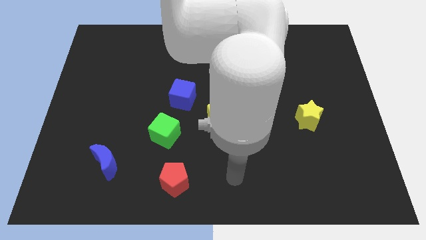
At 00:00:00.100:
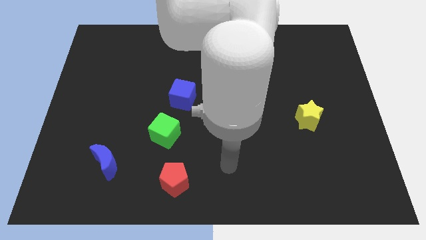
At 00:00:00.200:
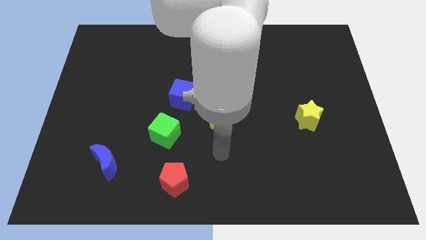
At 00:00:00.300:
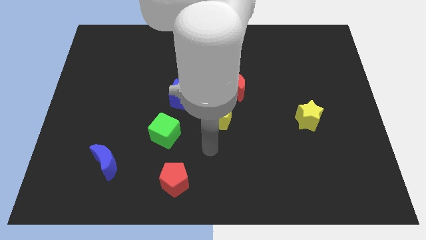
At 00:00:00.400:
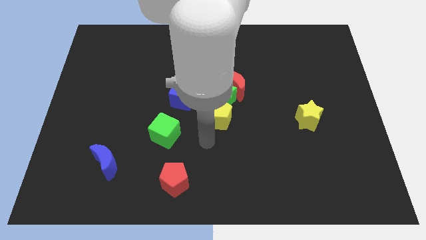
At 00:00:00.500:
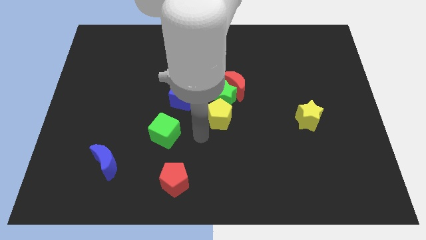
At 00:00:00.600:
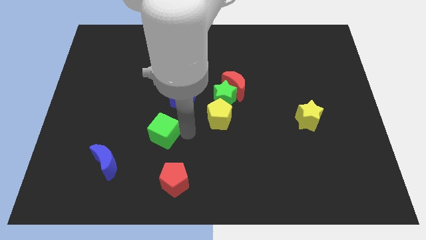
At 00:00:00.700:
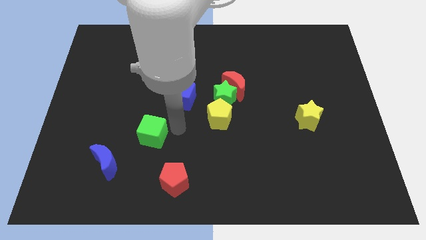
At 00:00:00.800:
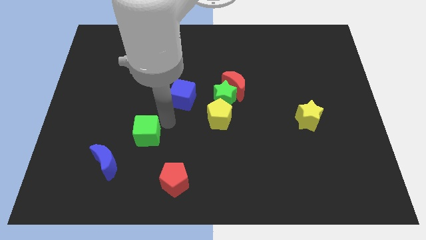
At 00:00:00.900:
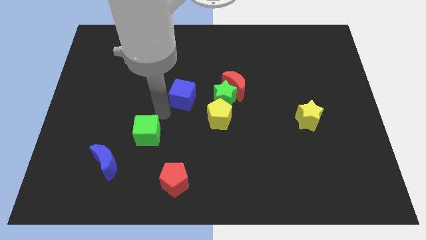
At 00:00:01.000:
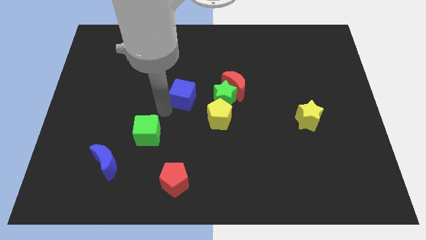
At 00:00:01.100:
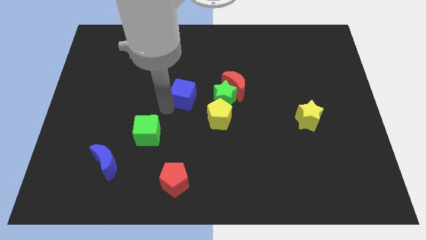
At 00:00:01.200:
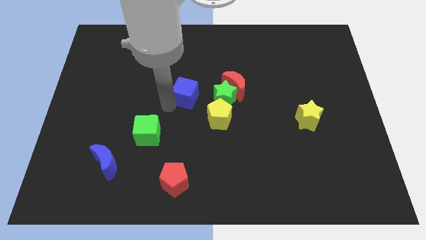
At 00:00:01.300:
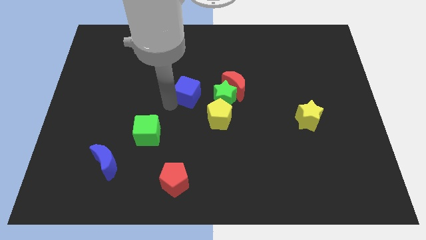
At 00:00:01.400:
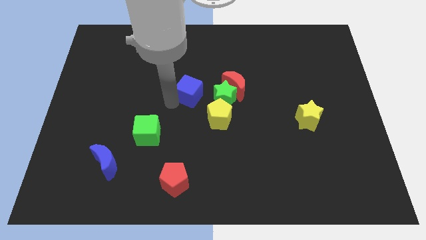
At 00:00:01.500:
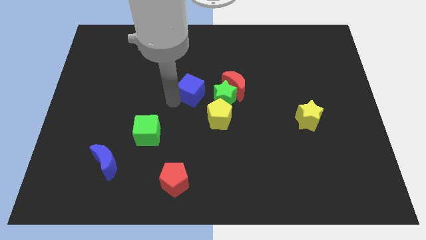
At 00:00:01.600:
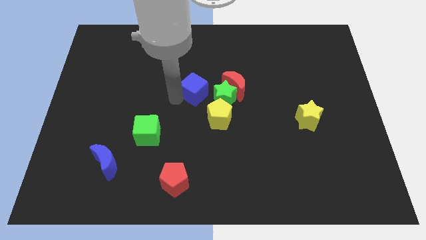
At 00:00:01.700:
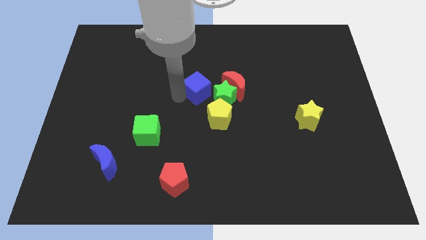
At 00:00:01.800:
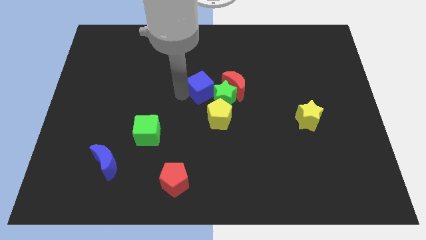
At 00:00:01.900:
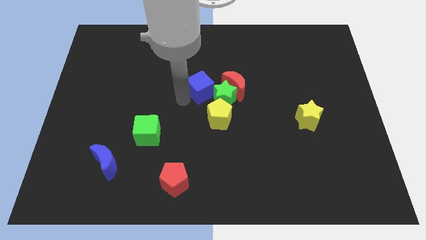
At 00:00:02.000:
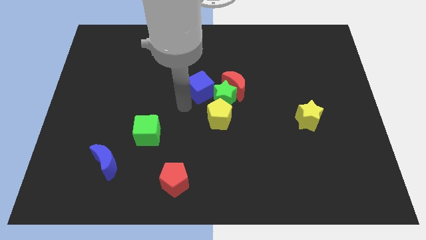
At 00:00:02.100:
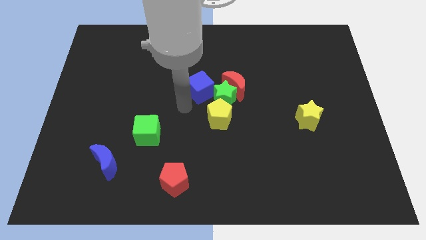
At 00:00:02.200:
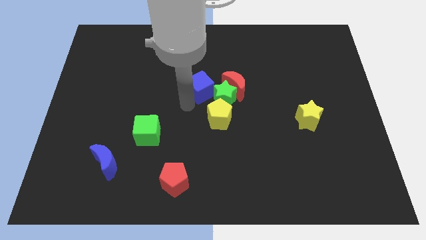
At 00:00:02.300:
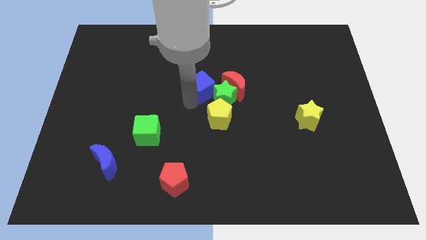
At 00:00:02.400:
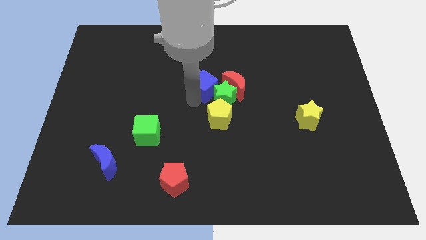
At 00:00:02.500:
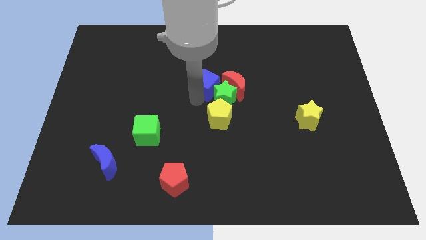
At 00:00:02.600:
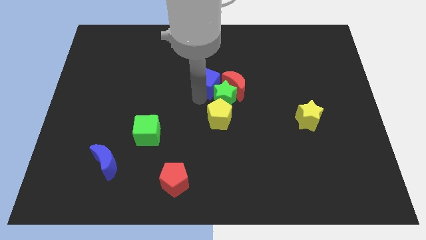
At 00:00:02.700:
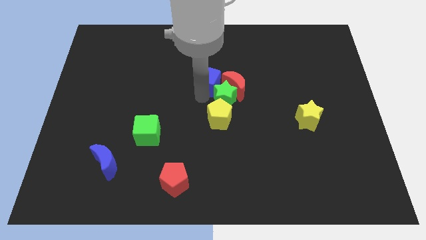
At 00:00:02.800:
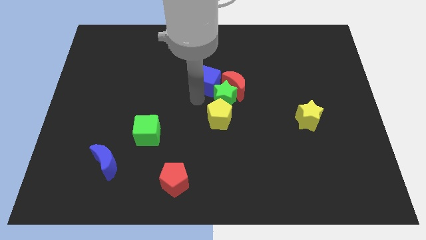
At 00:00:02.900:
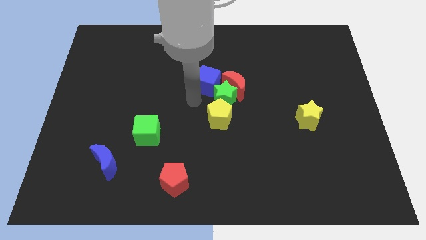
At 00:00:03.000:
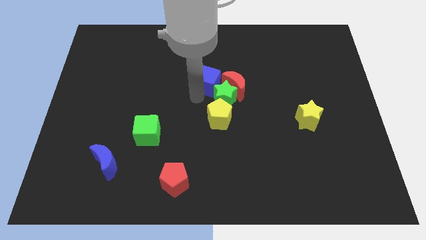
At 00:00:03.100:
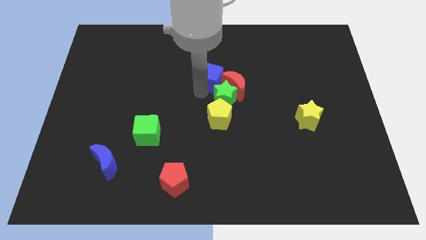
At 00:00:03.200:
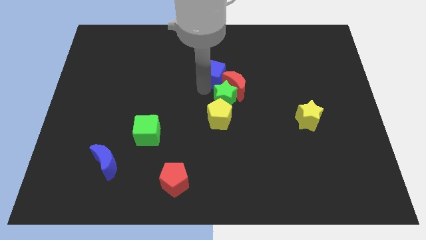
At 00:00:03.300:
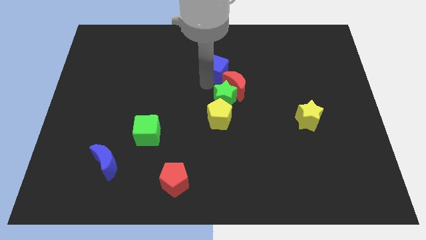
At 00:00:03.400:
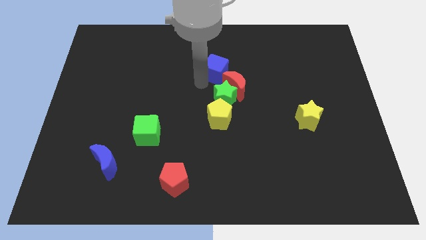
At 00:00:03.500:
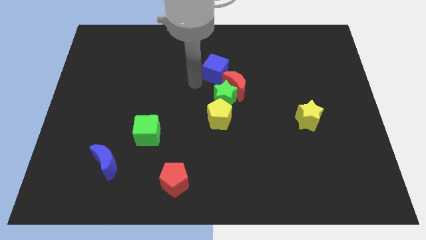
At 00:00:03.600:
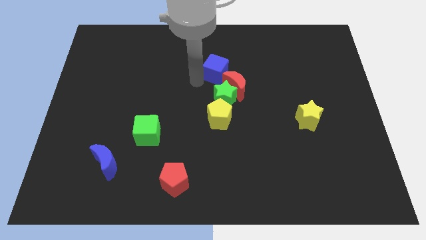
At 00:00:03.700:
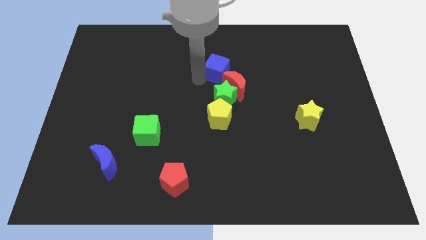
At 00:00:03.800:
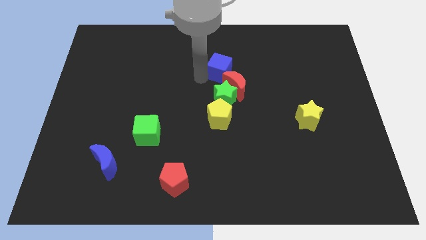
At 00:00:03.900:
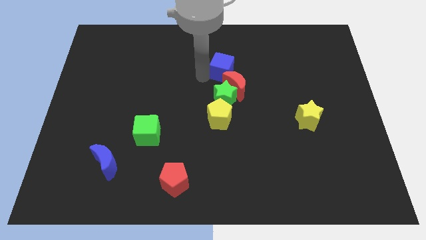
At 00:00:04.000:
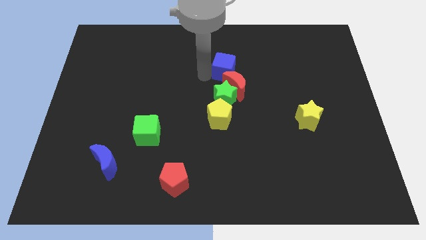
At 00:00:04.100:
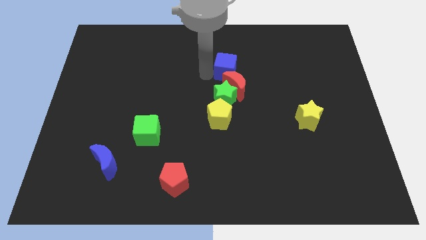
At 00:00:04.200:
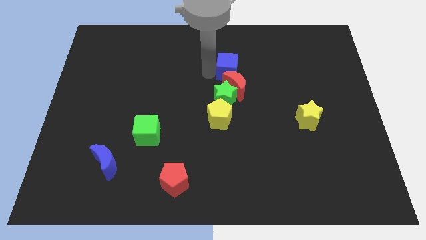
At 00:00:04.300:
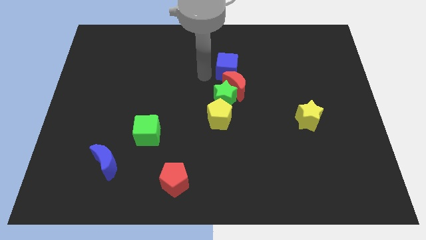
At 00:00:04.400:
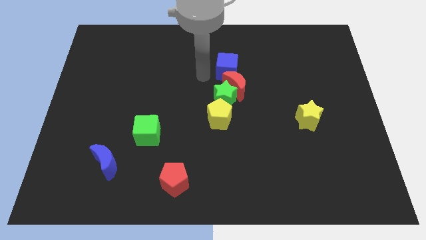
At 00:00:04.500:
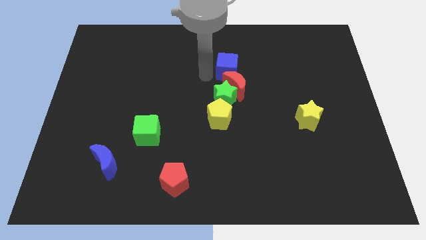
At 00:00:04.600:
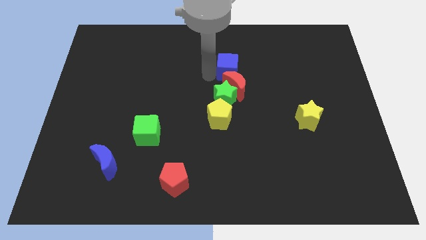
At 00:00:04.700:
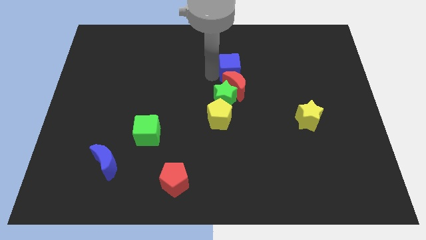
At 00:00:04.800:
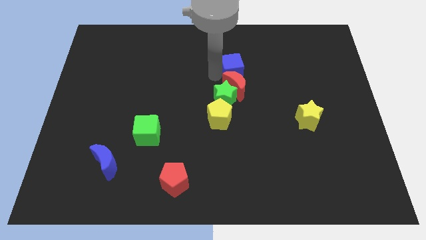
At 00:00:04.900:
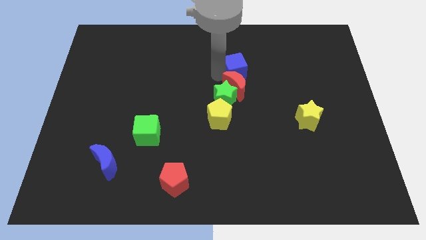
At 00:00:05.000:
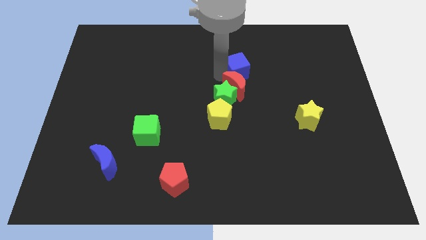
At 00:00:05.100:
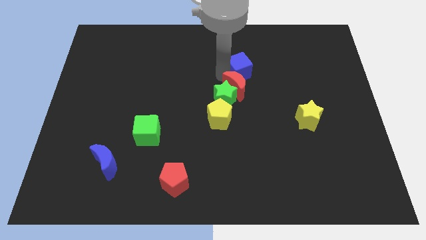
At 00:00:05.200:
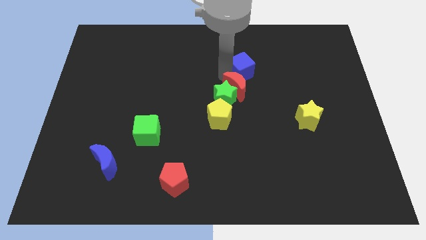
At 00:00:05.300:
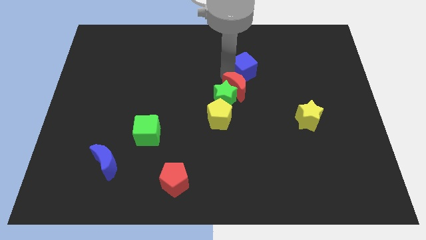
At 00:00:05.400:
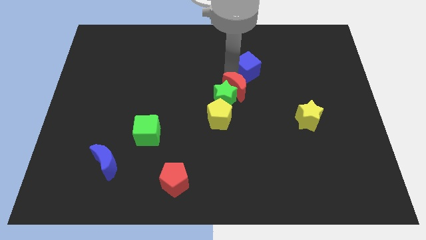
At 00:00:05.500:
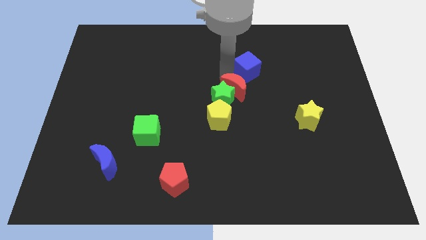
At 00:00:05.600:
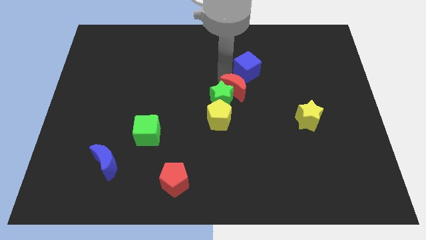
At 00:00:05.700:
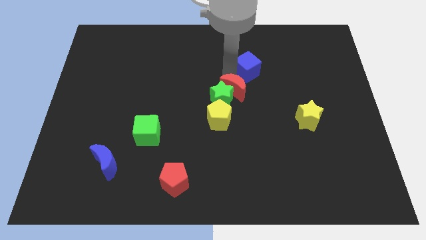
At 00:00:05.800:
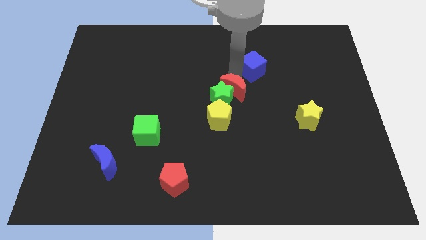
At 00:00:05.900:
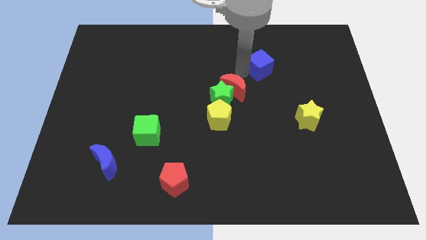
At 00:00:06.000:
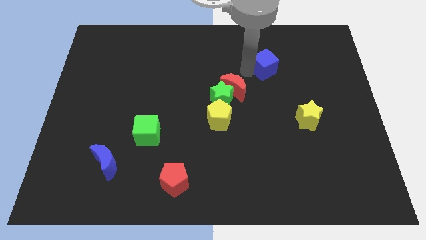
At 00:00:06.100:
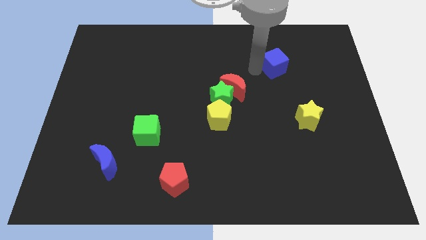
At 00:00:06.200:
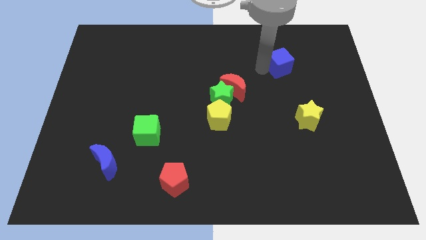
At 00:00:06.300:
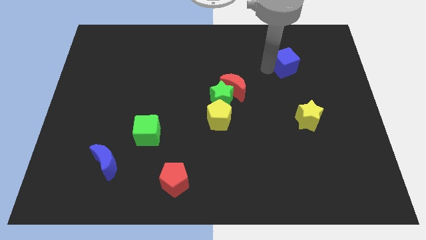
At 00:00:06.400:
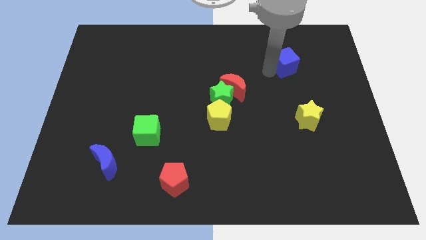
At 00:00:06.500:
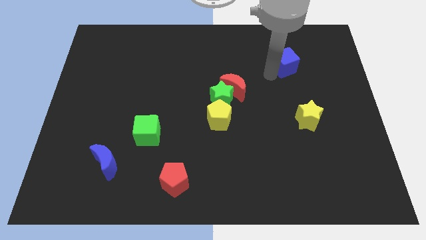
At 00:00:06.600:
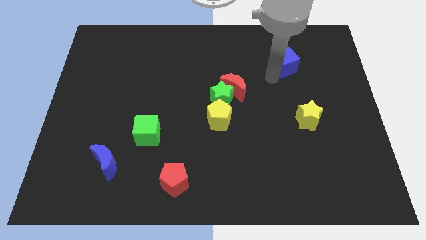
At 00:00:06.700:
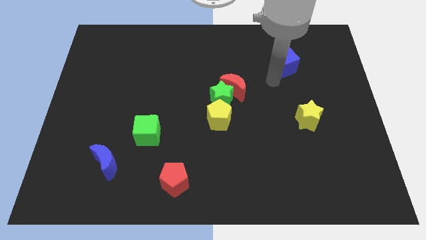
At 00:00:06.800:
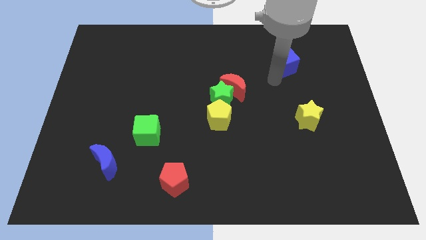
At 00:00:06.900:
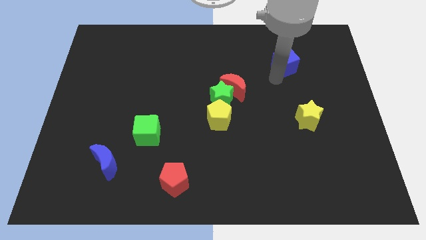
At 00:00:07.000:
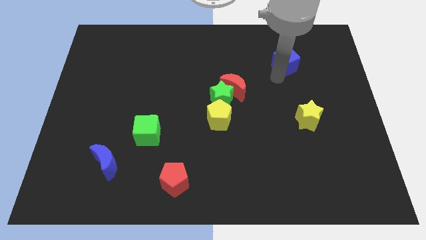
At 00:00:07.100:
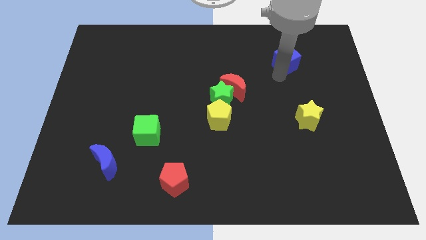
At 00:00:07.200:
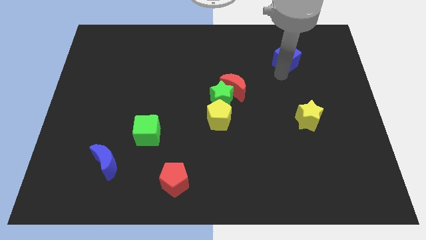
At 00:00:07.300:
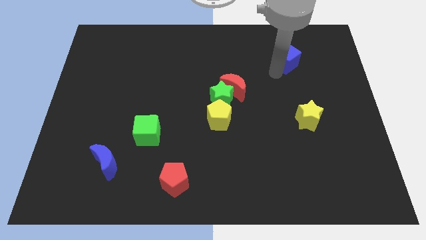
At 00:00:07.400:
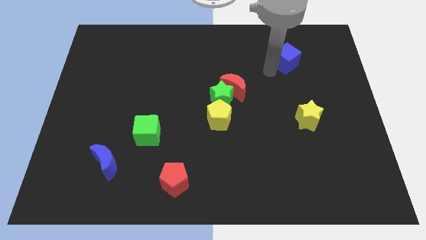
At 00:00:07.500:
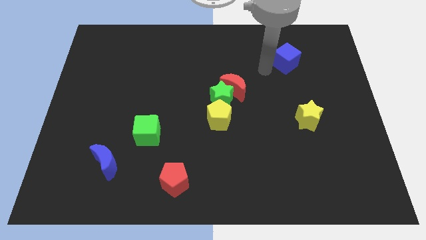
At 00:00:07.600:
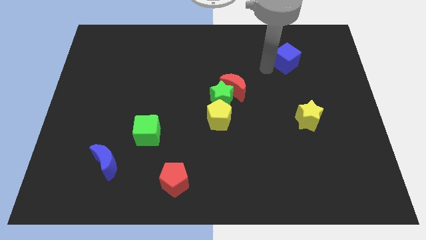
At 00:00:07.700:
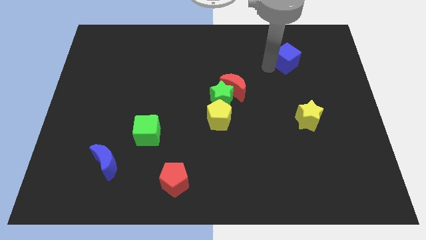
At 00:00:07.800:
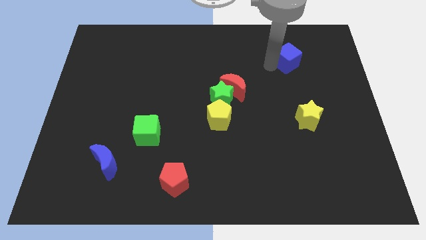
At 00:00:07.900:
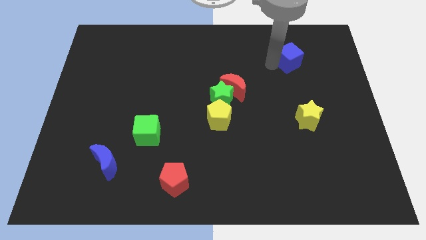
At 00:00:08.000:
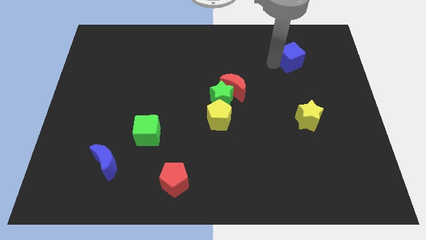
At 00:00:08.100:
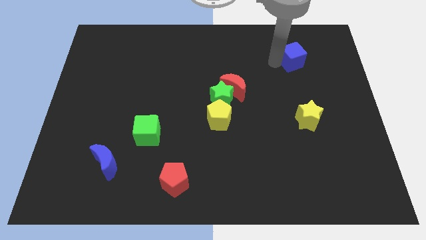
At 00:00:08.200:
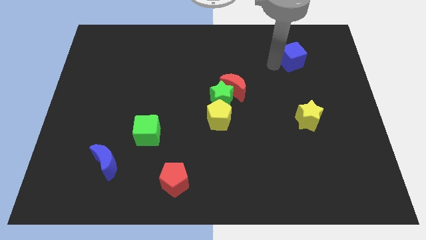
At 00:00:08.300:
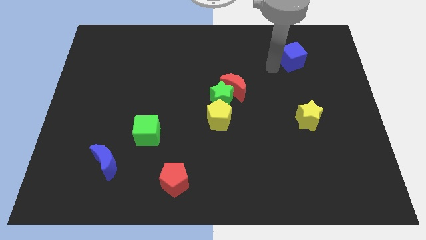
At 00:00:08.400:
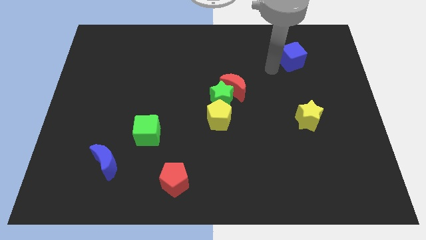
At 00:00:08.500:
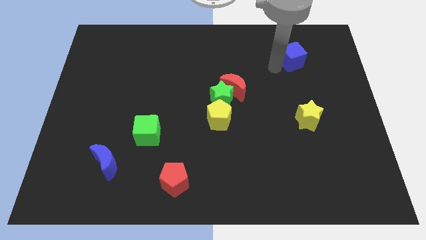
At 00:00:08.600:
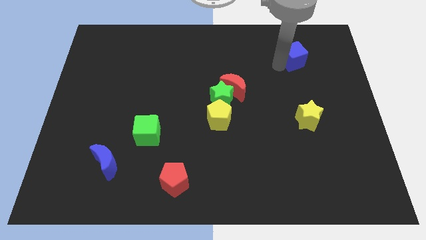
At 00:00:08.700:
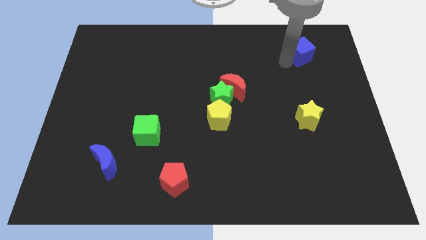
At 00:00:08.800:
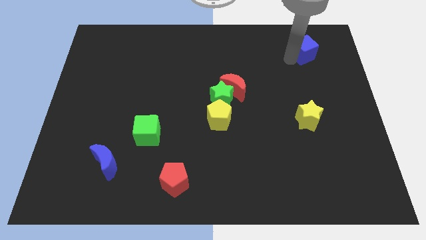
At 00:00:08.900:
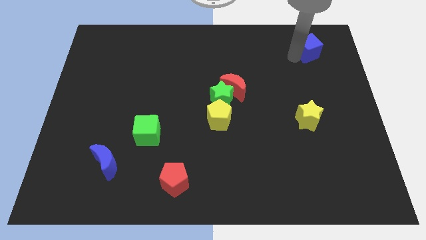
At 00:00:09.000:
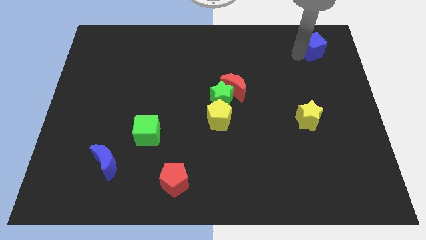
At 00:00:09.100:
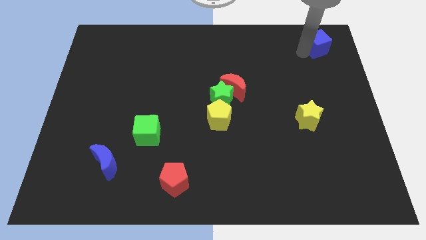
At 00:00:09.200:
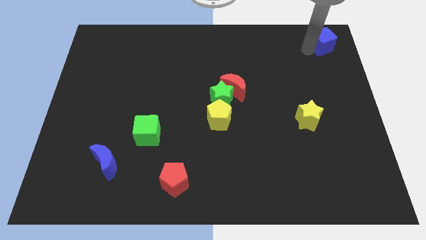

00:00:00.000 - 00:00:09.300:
slide the blue cube to the upper right corner
